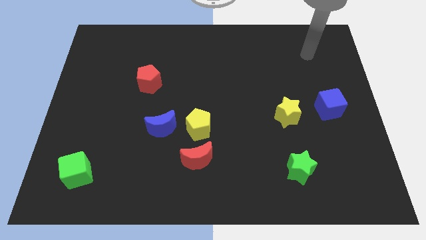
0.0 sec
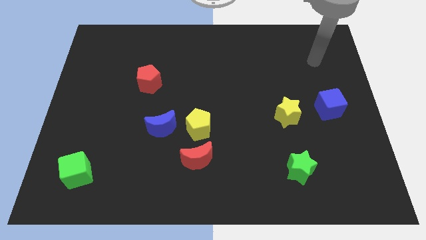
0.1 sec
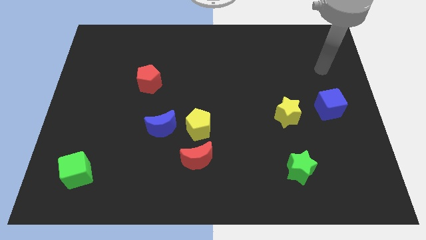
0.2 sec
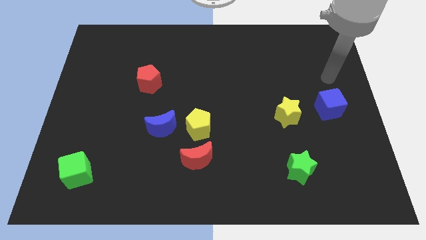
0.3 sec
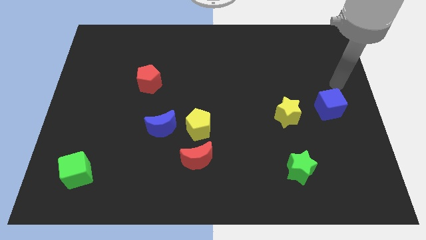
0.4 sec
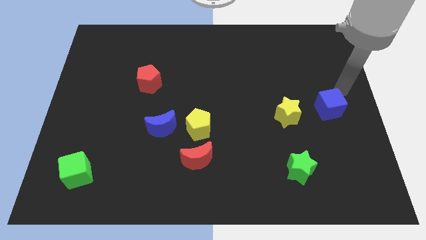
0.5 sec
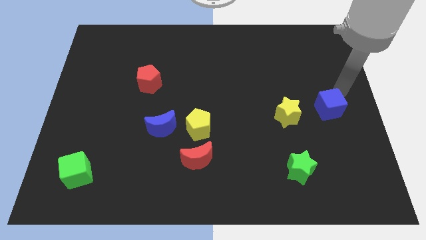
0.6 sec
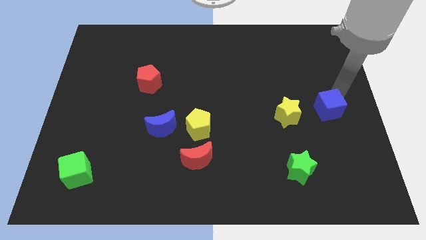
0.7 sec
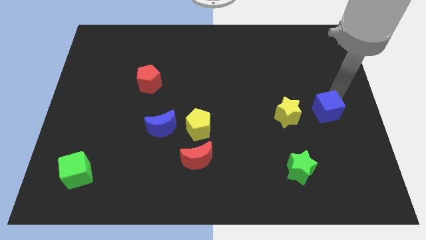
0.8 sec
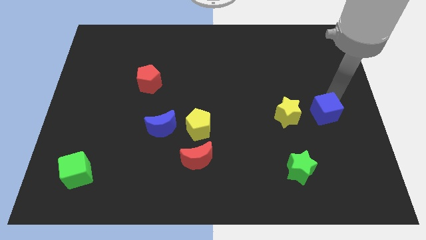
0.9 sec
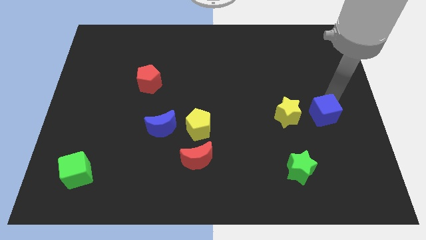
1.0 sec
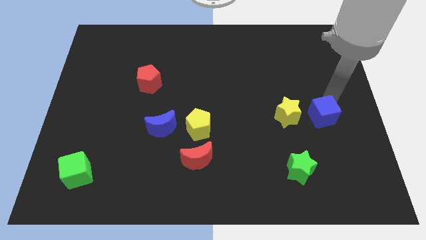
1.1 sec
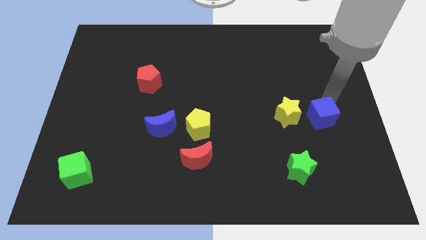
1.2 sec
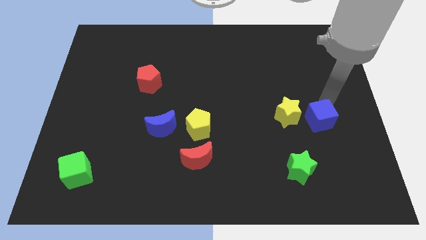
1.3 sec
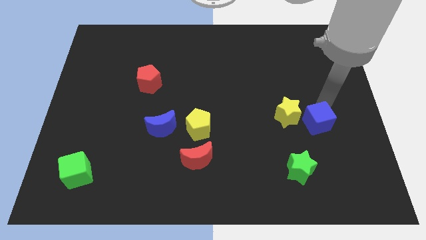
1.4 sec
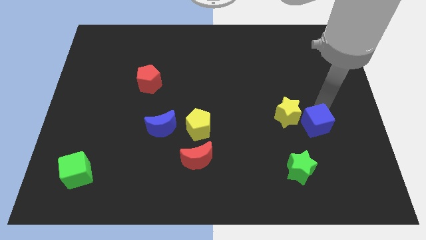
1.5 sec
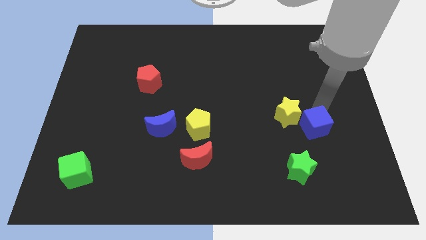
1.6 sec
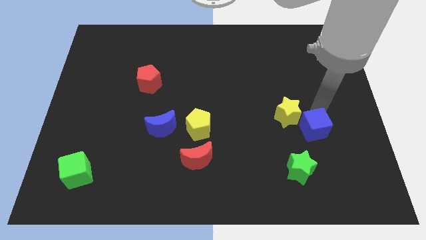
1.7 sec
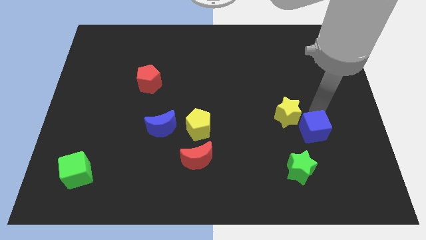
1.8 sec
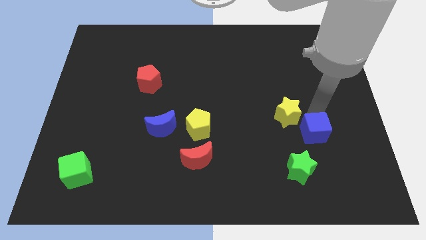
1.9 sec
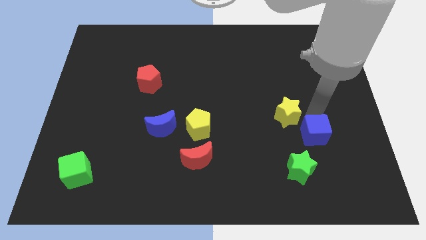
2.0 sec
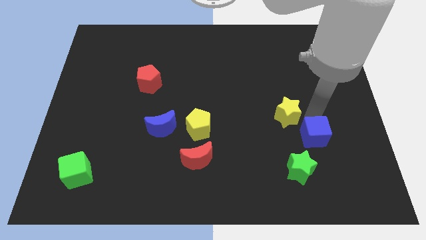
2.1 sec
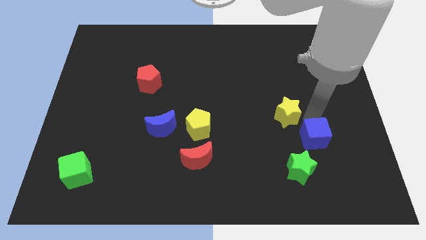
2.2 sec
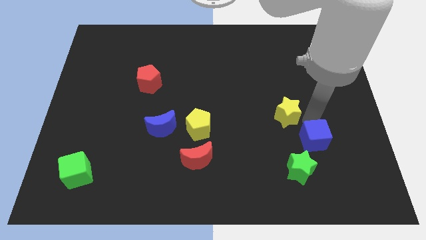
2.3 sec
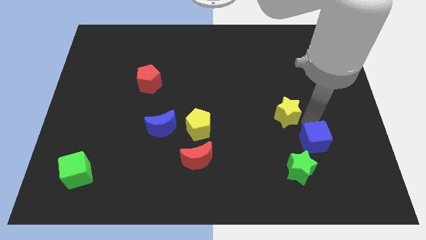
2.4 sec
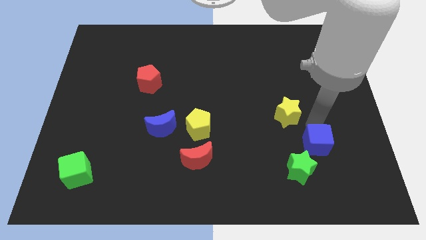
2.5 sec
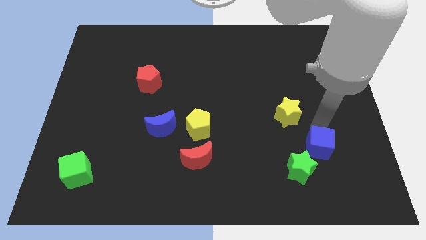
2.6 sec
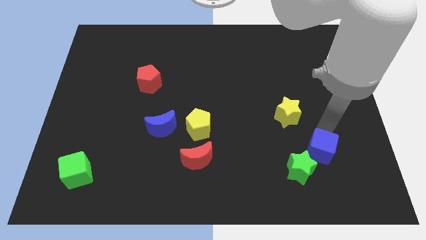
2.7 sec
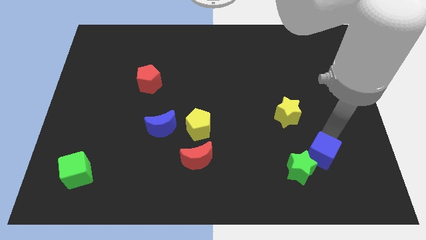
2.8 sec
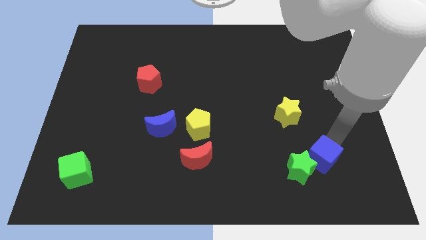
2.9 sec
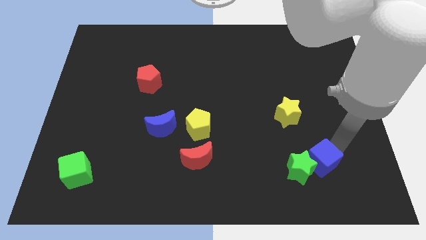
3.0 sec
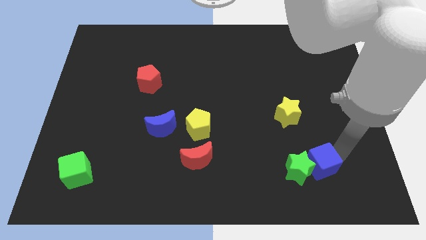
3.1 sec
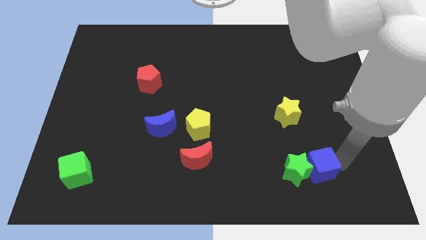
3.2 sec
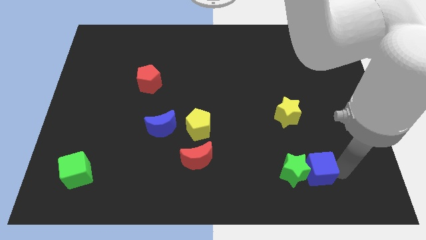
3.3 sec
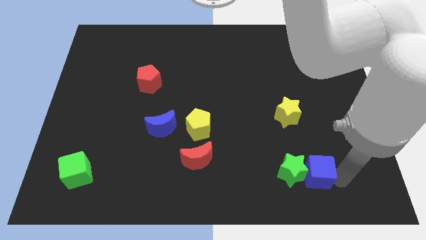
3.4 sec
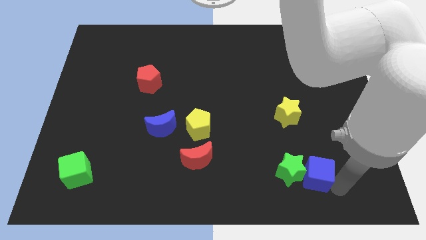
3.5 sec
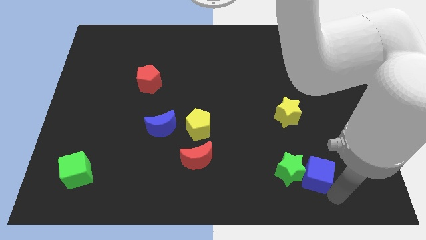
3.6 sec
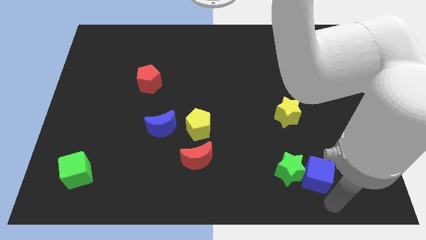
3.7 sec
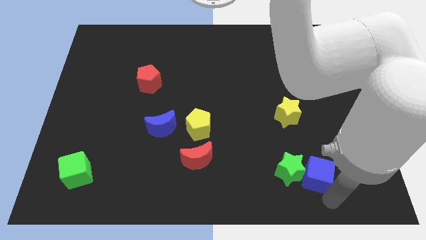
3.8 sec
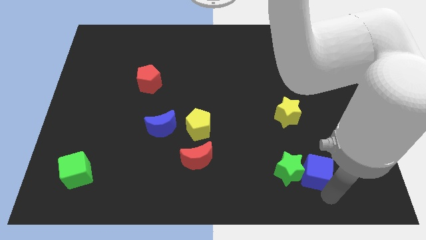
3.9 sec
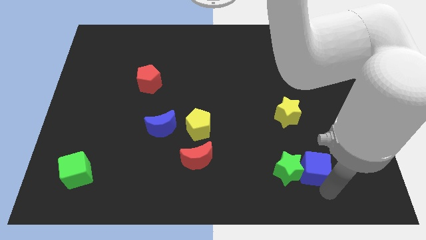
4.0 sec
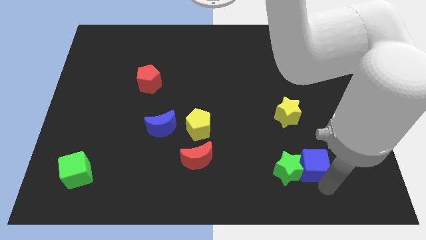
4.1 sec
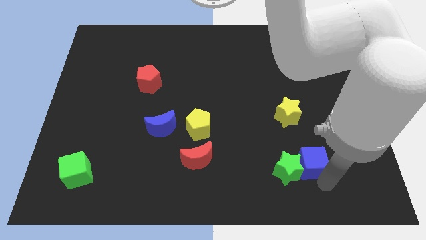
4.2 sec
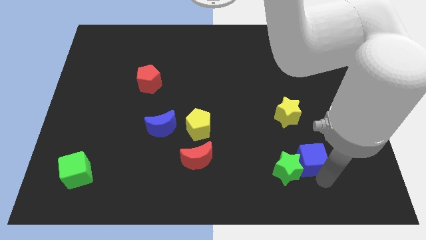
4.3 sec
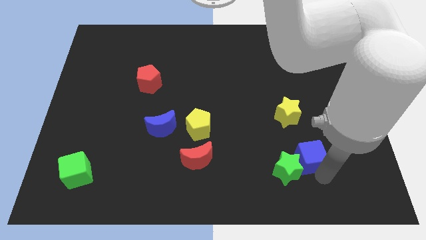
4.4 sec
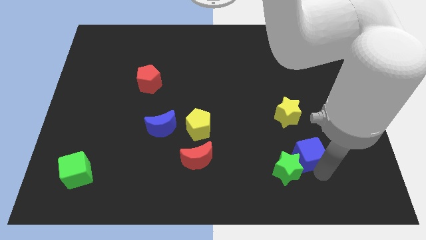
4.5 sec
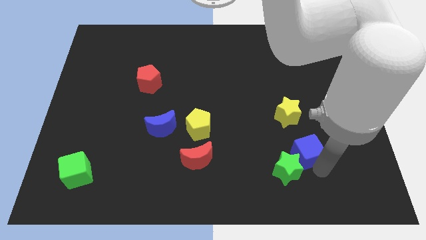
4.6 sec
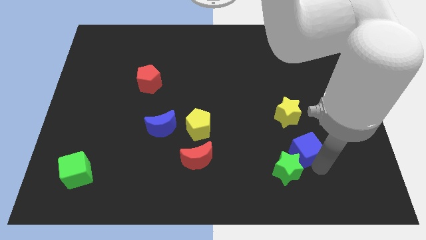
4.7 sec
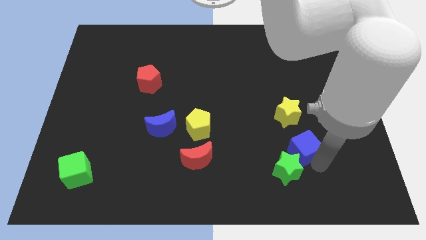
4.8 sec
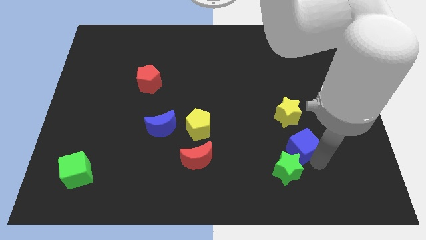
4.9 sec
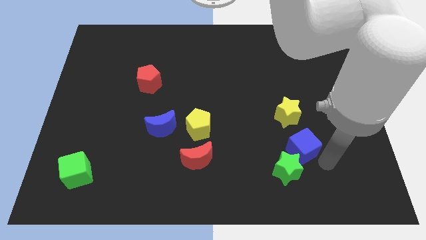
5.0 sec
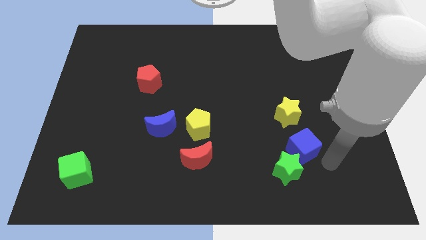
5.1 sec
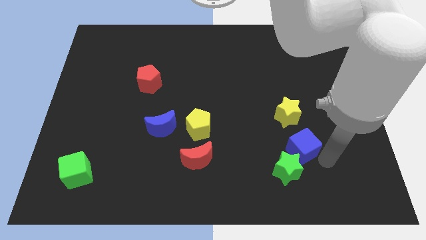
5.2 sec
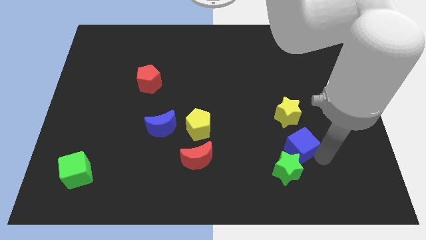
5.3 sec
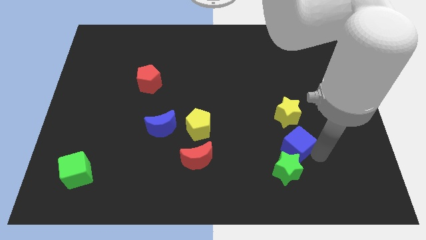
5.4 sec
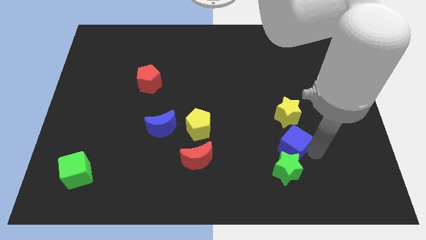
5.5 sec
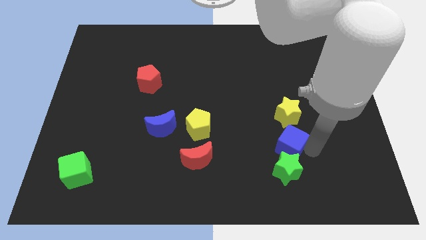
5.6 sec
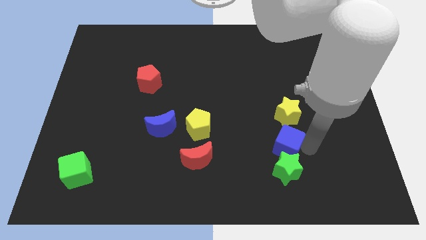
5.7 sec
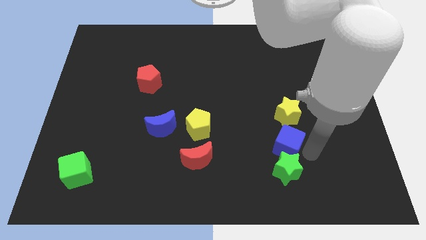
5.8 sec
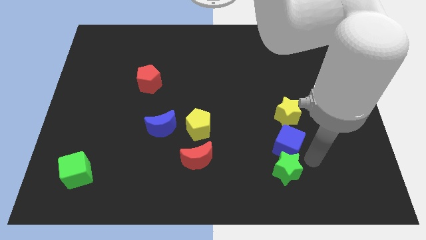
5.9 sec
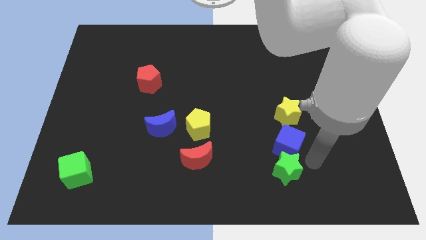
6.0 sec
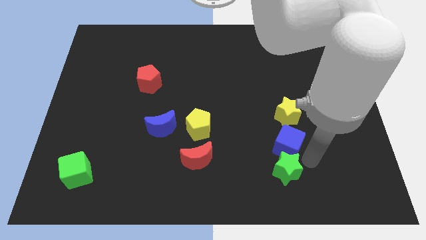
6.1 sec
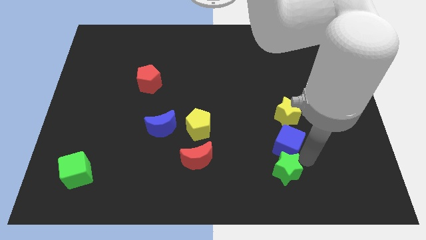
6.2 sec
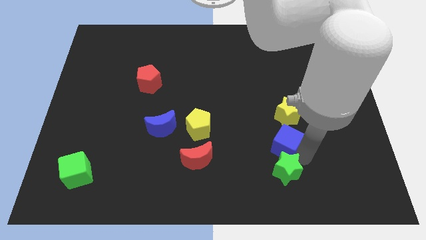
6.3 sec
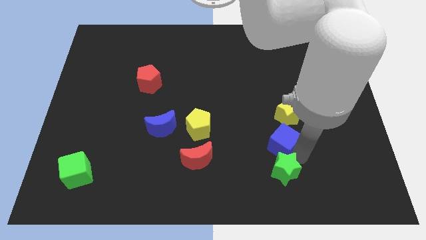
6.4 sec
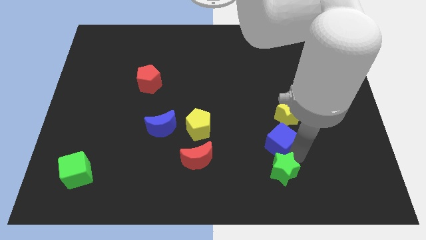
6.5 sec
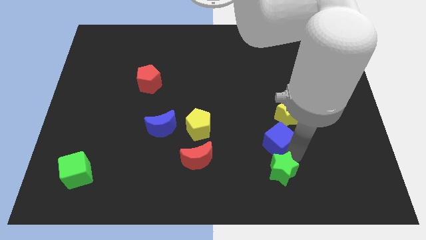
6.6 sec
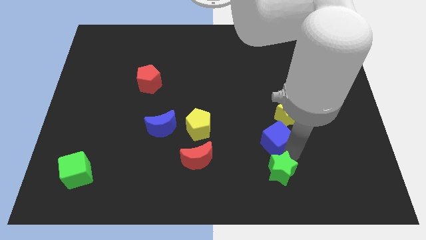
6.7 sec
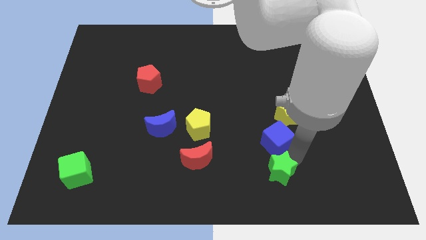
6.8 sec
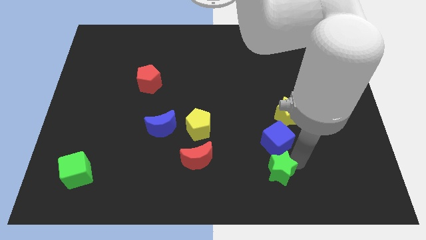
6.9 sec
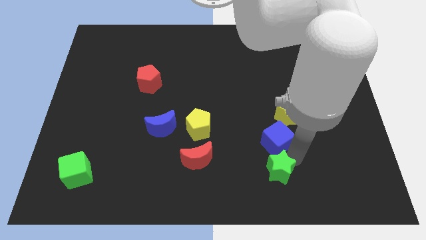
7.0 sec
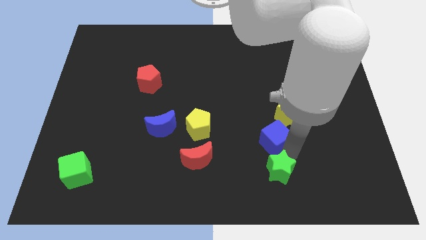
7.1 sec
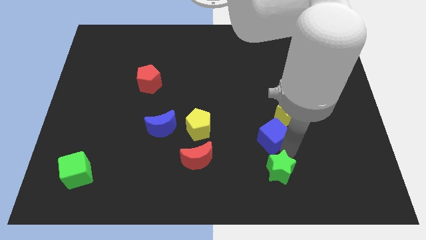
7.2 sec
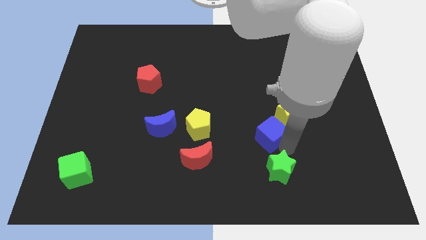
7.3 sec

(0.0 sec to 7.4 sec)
push the blue cube to the right of the yellow pentagon
